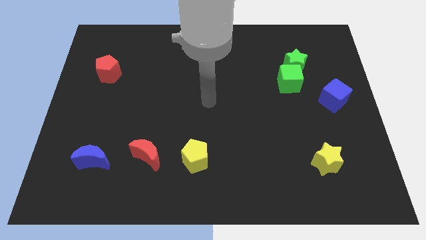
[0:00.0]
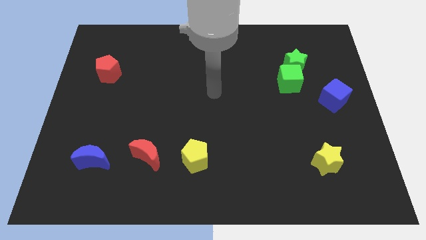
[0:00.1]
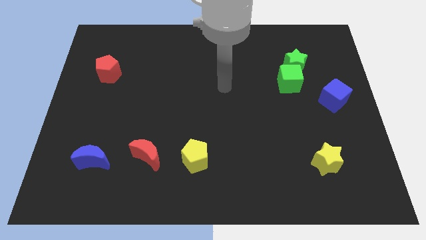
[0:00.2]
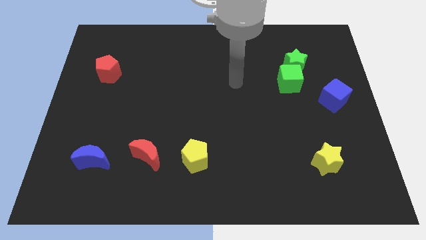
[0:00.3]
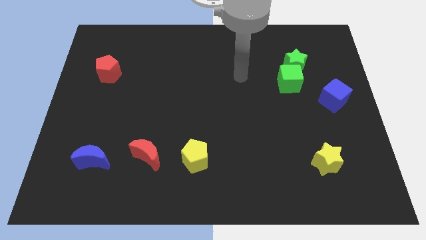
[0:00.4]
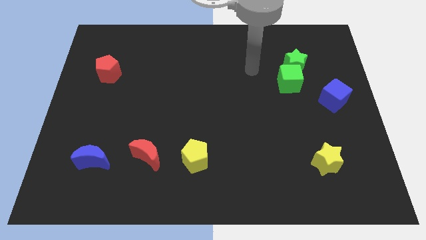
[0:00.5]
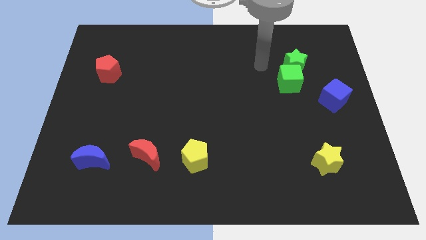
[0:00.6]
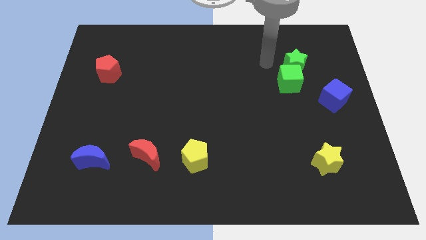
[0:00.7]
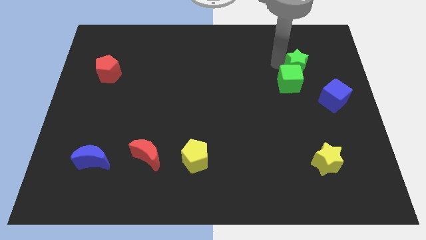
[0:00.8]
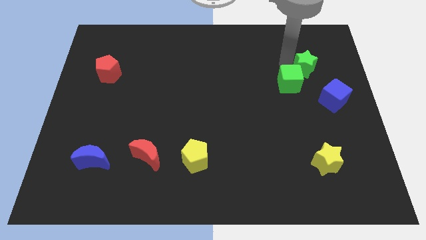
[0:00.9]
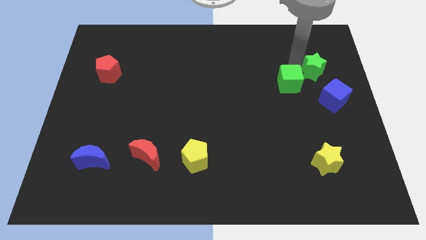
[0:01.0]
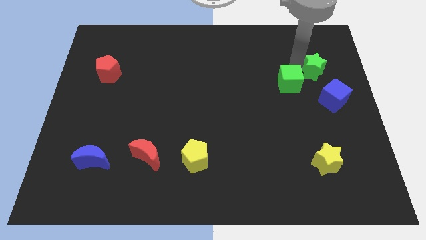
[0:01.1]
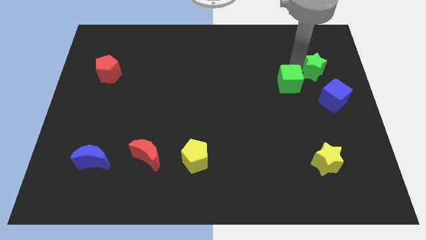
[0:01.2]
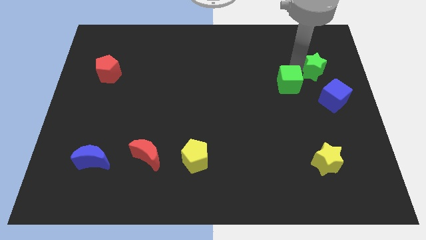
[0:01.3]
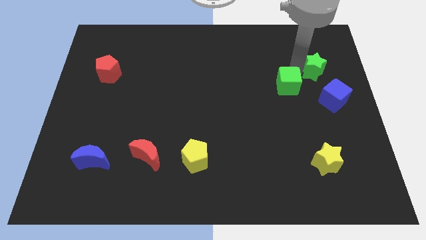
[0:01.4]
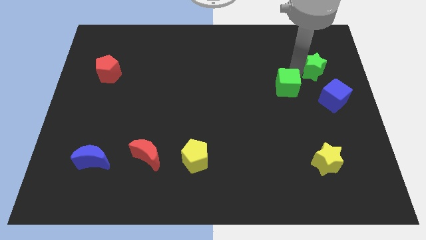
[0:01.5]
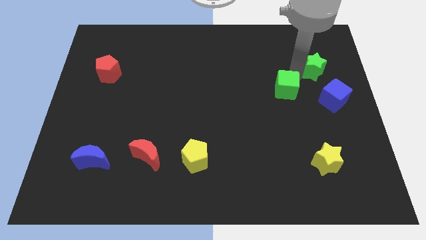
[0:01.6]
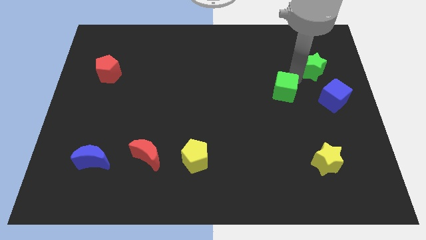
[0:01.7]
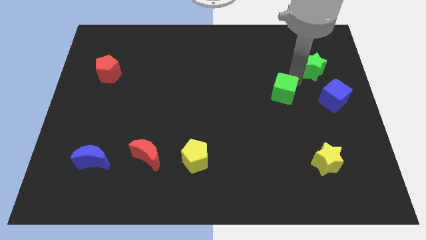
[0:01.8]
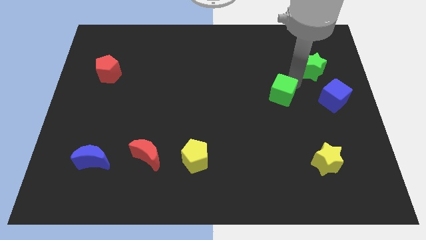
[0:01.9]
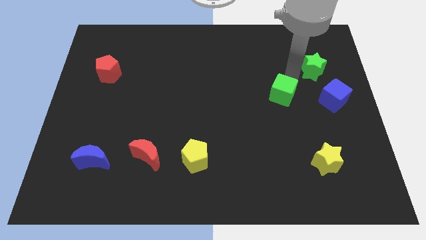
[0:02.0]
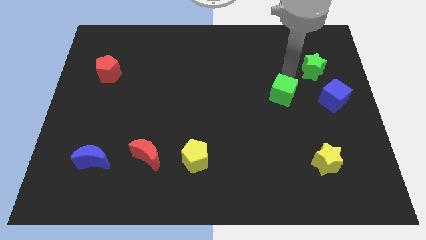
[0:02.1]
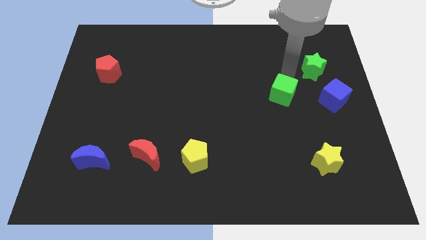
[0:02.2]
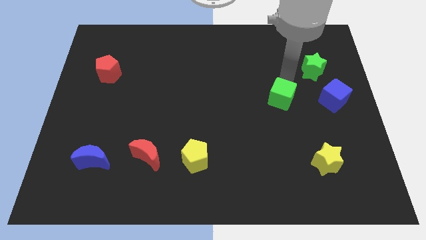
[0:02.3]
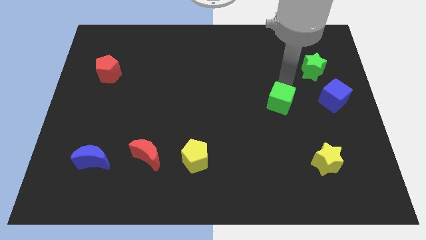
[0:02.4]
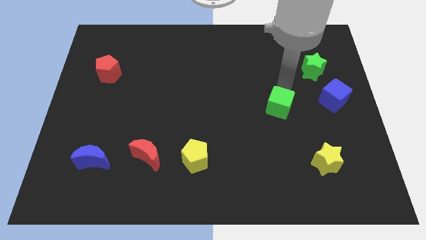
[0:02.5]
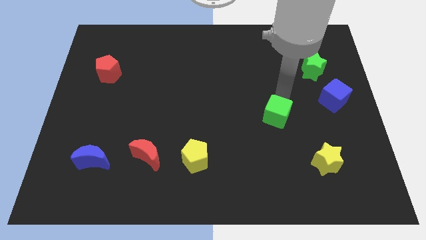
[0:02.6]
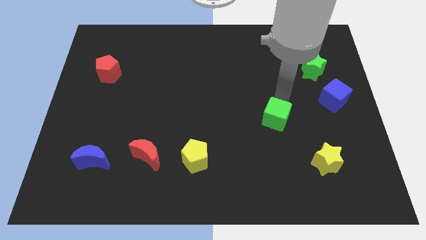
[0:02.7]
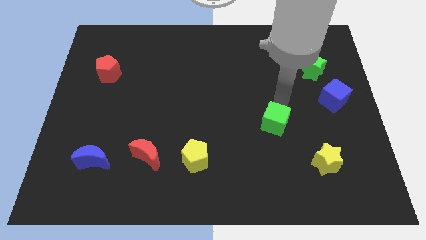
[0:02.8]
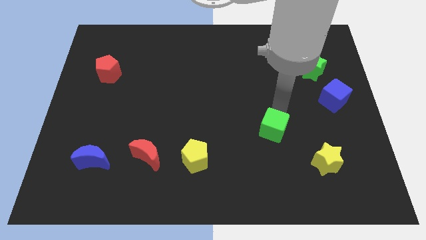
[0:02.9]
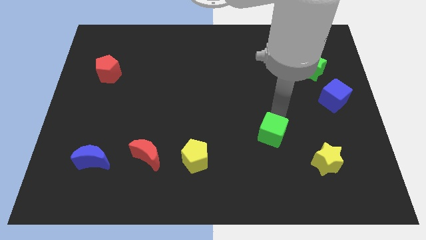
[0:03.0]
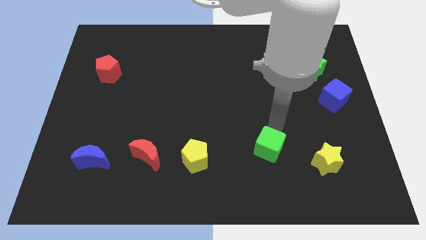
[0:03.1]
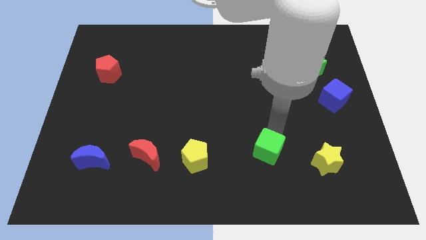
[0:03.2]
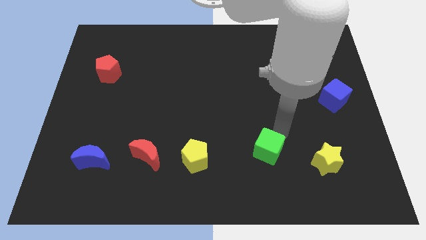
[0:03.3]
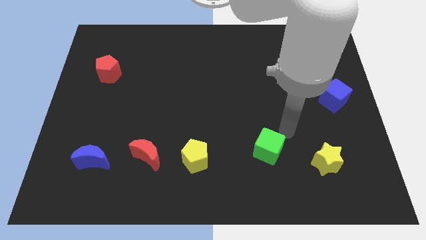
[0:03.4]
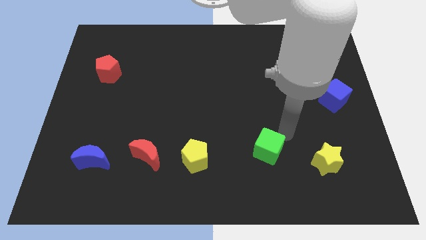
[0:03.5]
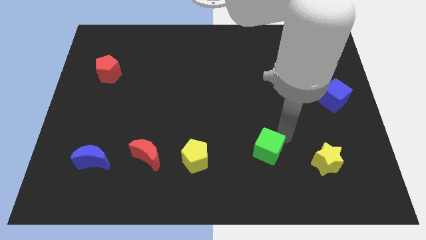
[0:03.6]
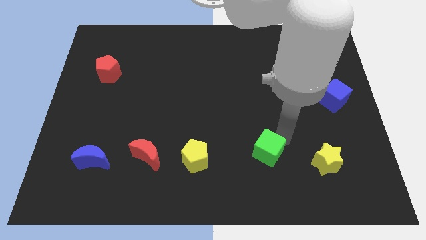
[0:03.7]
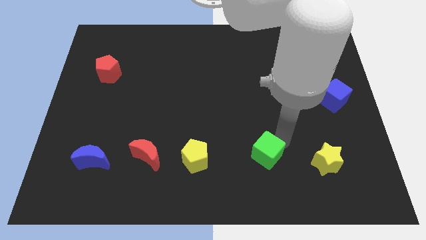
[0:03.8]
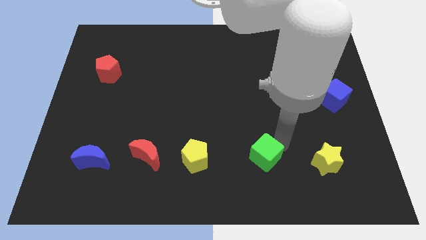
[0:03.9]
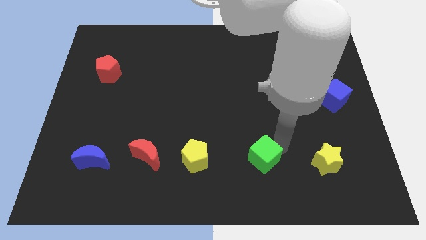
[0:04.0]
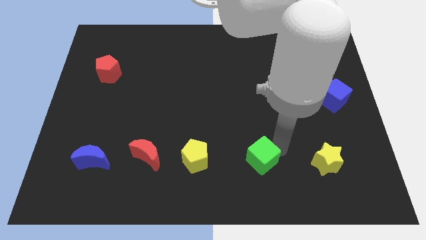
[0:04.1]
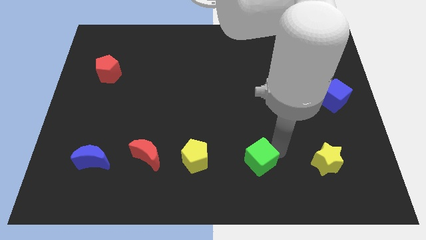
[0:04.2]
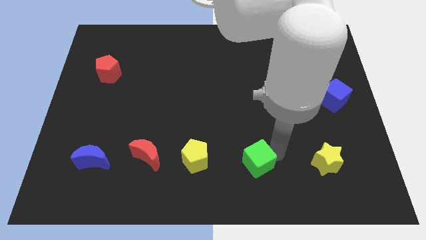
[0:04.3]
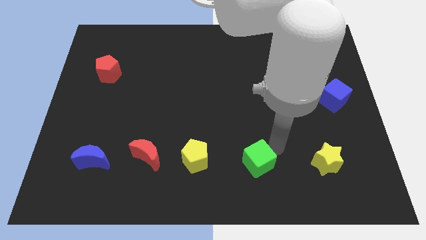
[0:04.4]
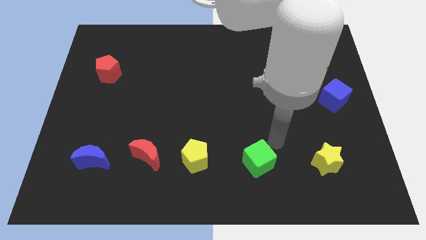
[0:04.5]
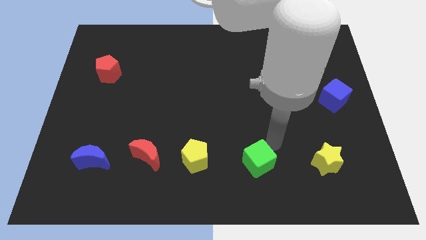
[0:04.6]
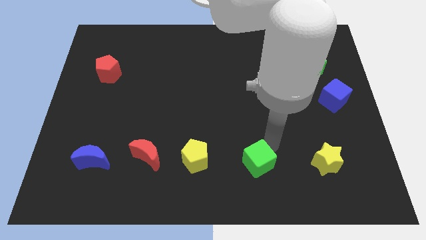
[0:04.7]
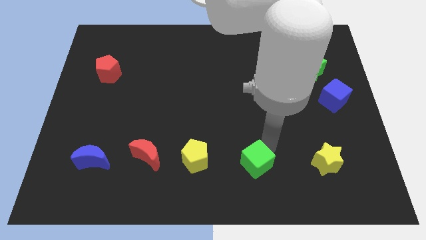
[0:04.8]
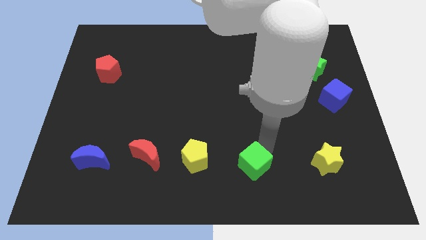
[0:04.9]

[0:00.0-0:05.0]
move the green cube to the bottom

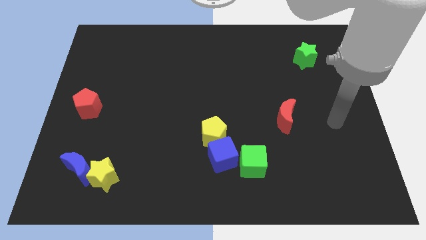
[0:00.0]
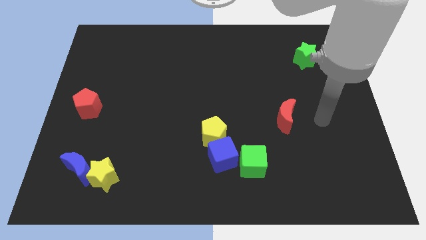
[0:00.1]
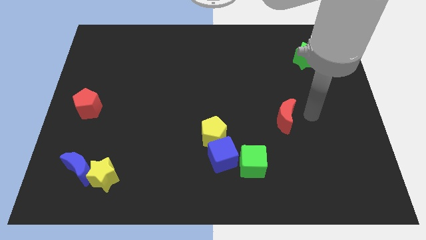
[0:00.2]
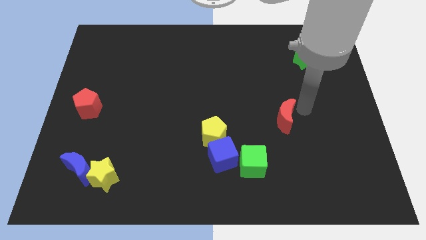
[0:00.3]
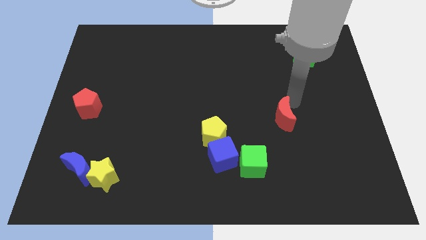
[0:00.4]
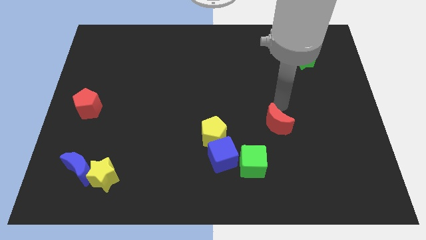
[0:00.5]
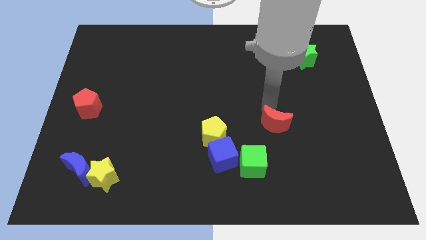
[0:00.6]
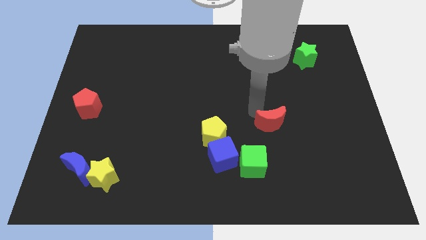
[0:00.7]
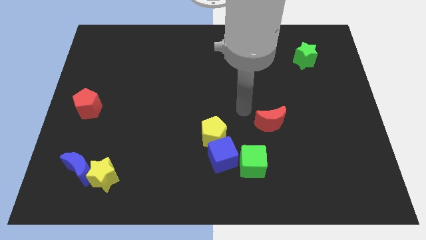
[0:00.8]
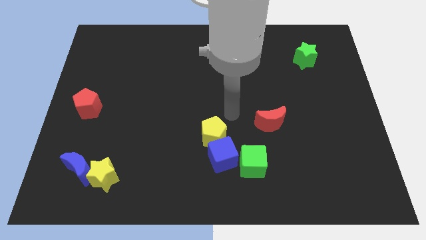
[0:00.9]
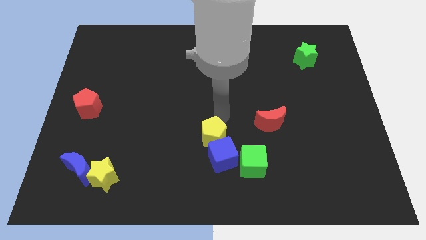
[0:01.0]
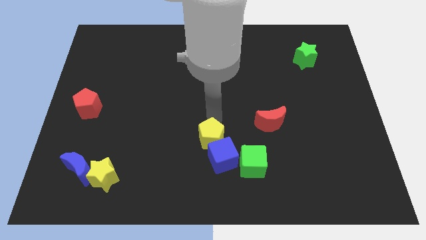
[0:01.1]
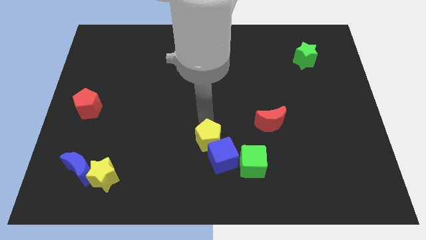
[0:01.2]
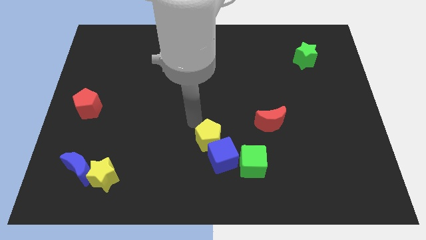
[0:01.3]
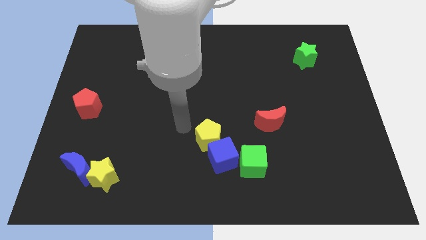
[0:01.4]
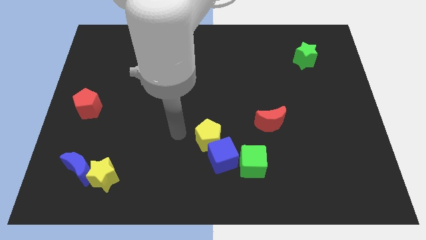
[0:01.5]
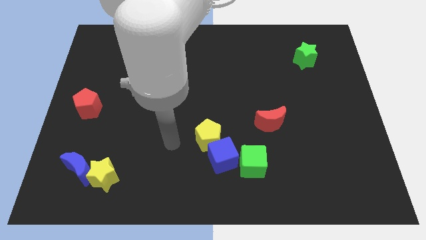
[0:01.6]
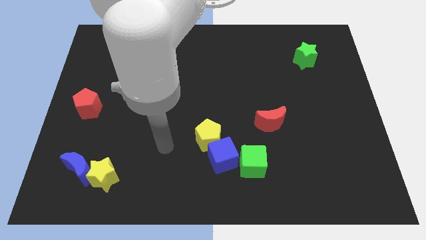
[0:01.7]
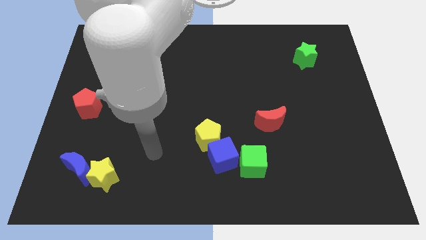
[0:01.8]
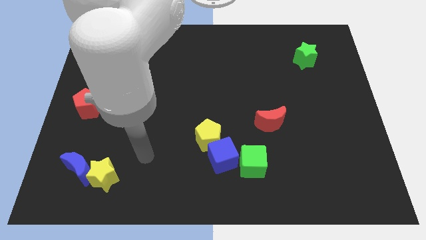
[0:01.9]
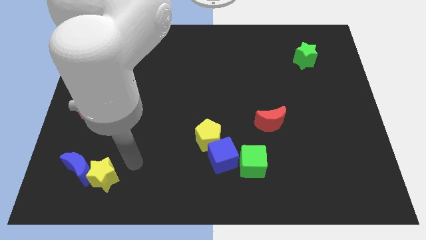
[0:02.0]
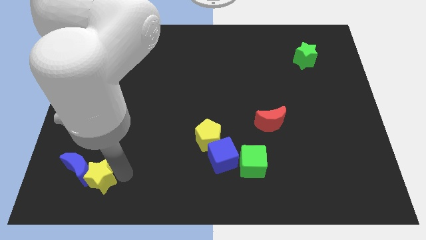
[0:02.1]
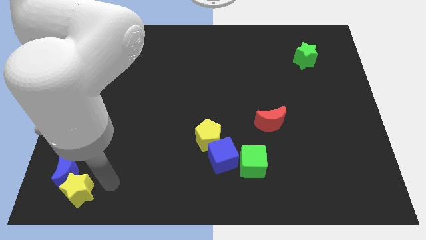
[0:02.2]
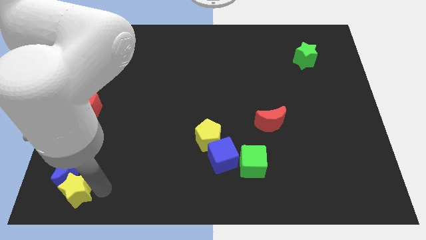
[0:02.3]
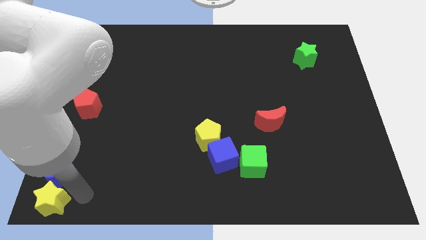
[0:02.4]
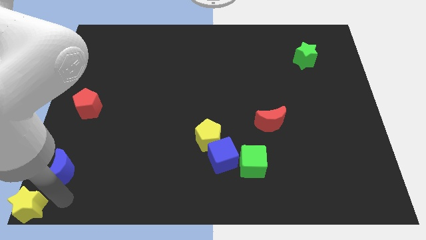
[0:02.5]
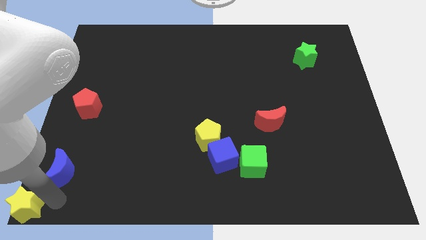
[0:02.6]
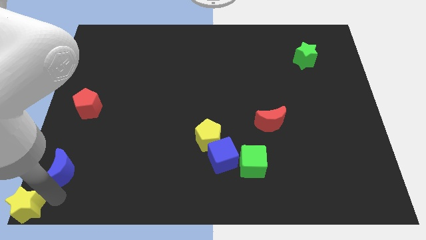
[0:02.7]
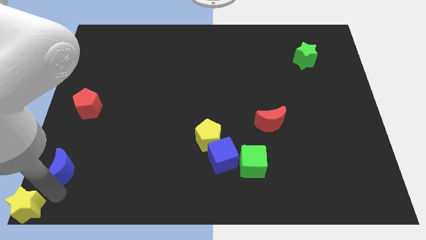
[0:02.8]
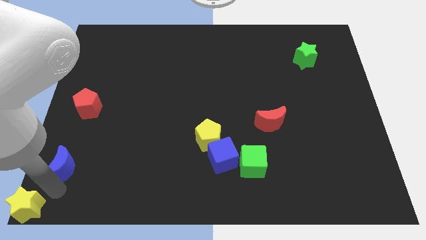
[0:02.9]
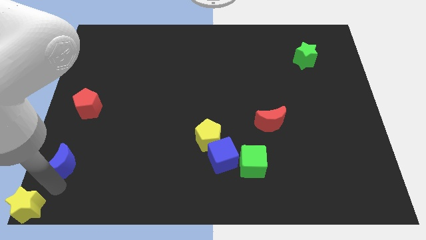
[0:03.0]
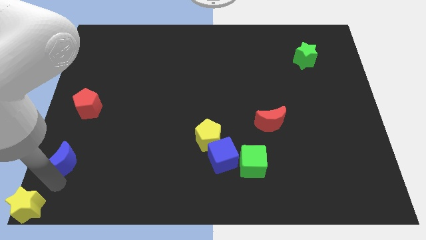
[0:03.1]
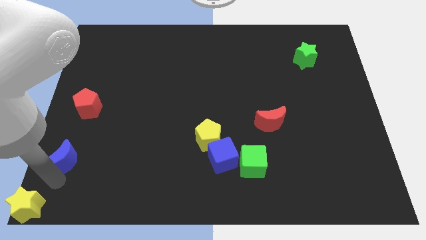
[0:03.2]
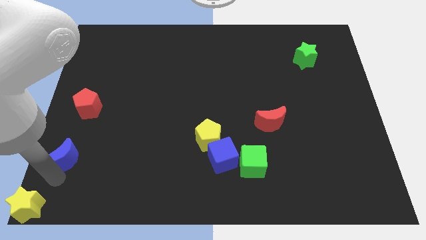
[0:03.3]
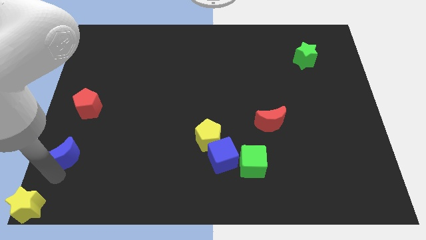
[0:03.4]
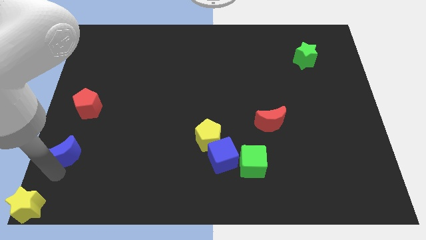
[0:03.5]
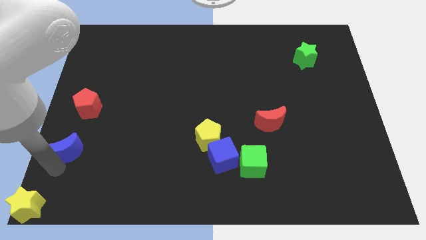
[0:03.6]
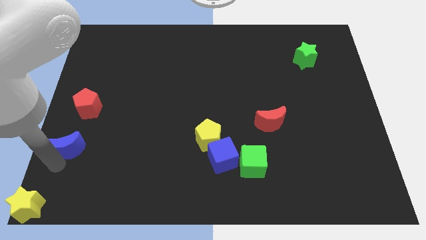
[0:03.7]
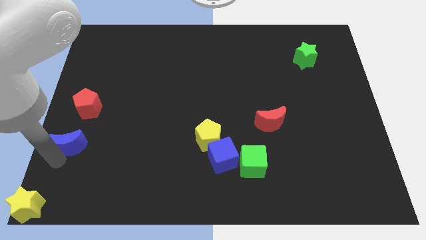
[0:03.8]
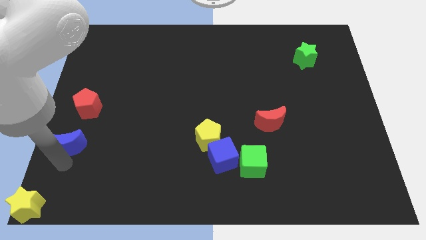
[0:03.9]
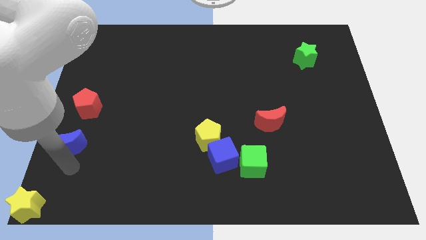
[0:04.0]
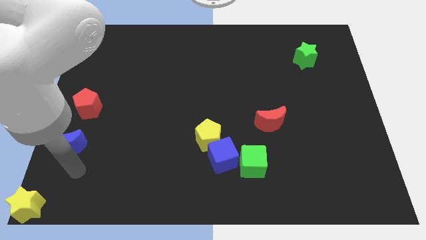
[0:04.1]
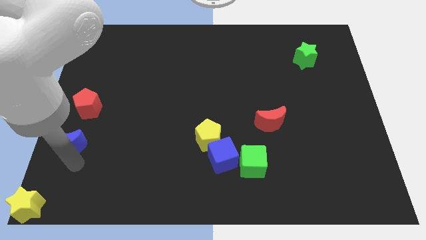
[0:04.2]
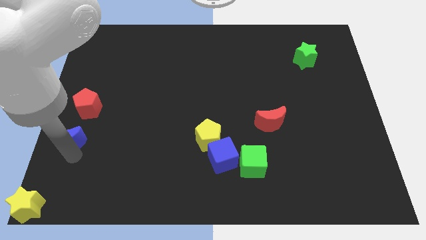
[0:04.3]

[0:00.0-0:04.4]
move the blue moon to the center left
